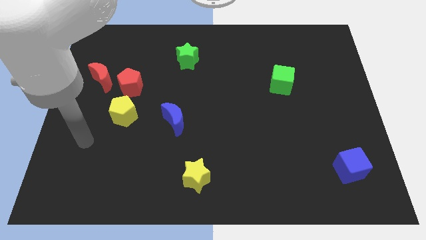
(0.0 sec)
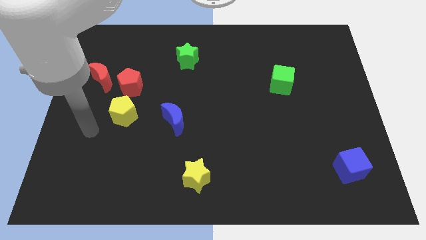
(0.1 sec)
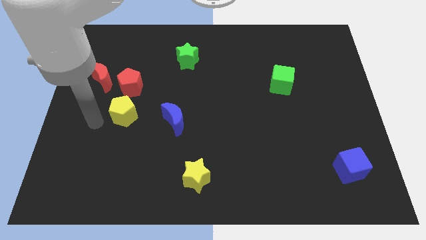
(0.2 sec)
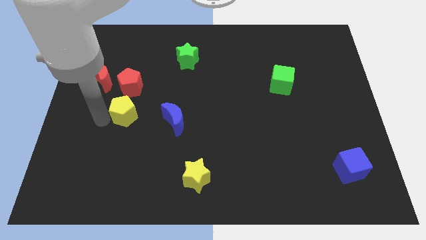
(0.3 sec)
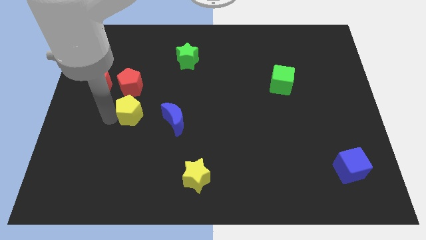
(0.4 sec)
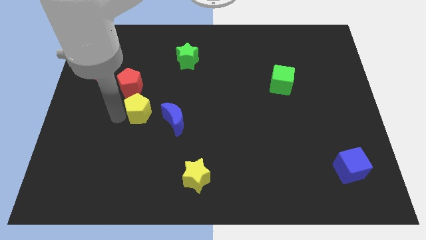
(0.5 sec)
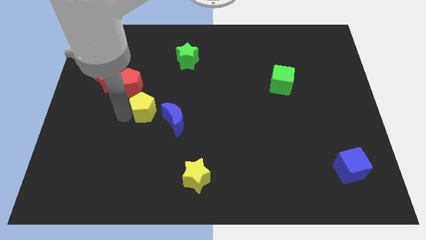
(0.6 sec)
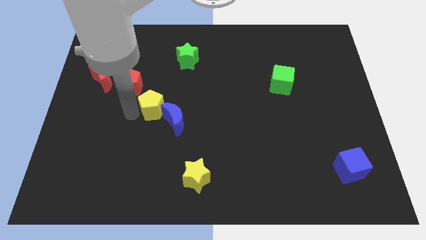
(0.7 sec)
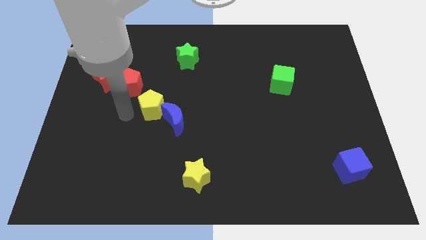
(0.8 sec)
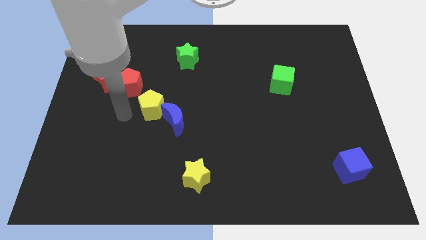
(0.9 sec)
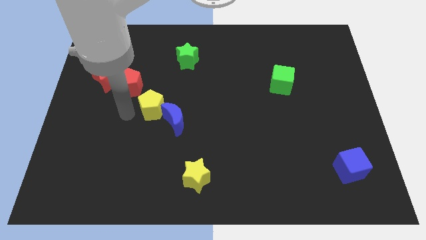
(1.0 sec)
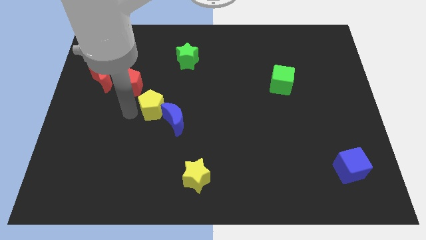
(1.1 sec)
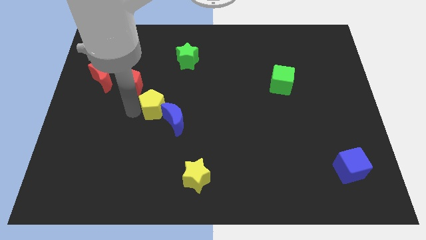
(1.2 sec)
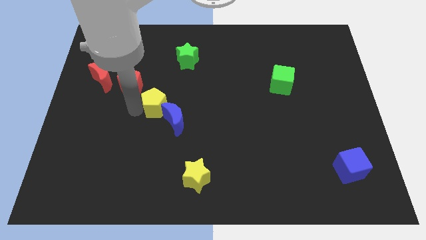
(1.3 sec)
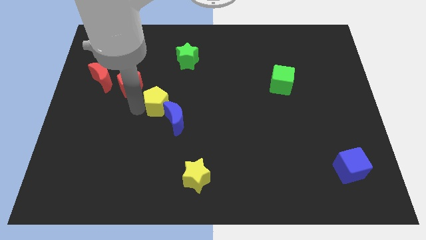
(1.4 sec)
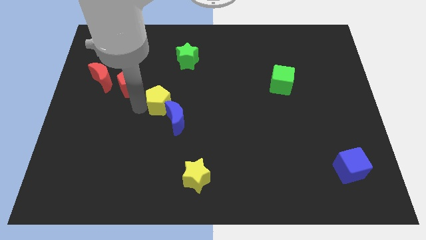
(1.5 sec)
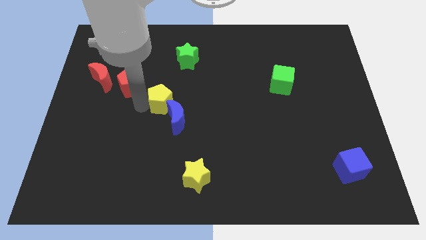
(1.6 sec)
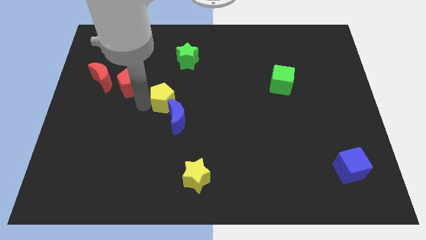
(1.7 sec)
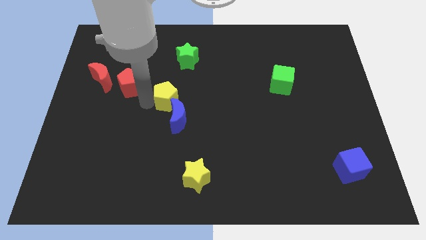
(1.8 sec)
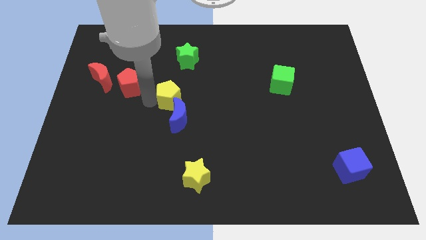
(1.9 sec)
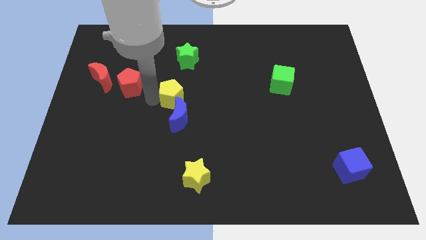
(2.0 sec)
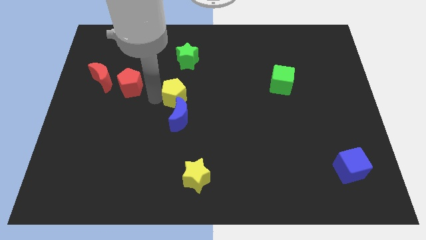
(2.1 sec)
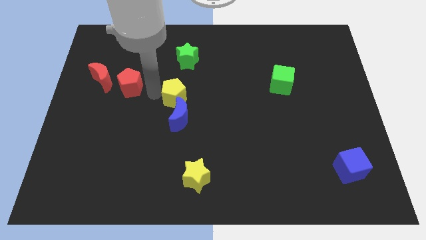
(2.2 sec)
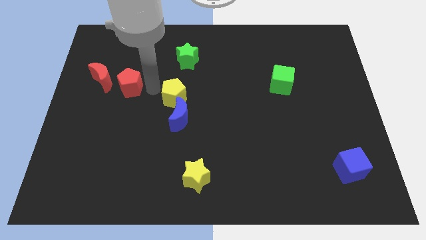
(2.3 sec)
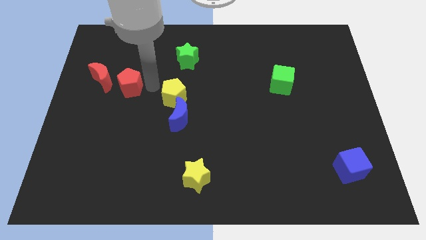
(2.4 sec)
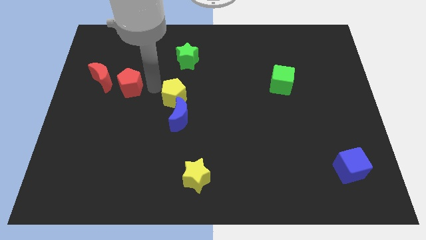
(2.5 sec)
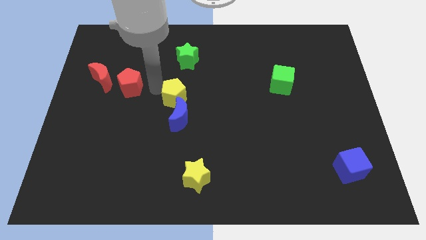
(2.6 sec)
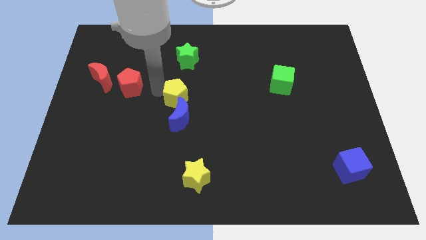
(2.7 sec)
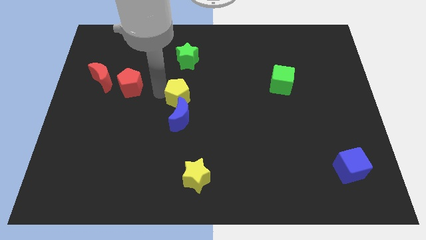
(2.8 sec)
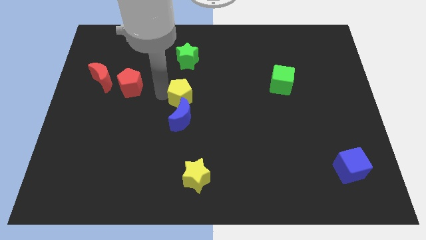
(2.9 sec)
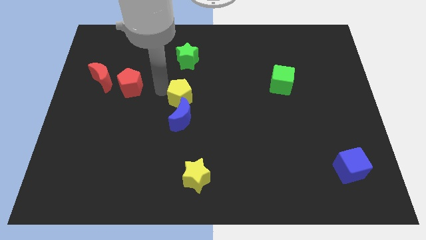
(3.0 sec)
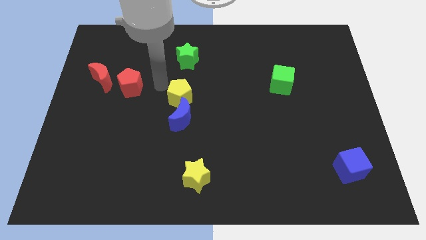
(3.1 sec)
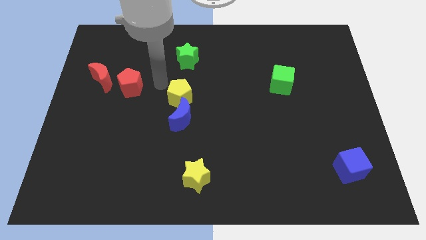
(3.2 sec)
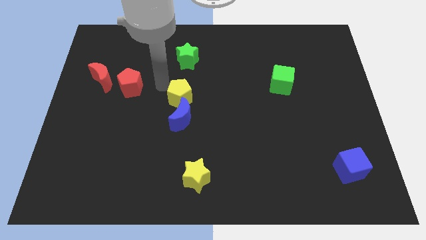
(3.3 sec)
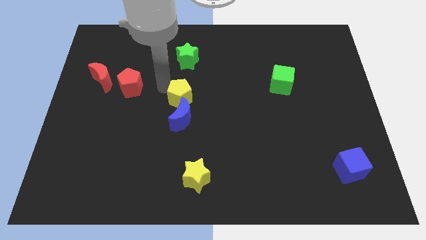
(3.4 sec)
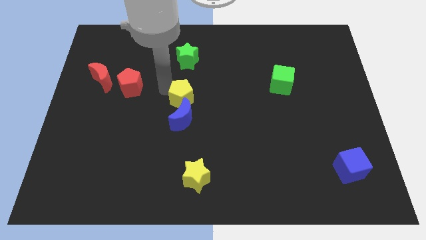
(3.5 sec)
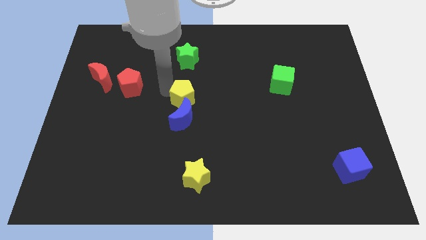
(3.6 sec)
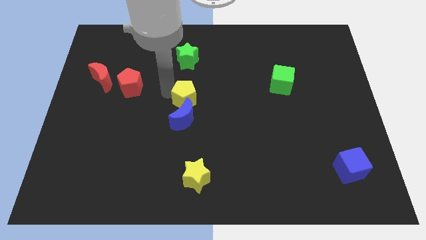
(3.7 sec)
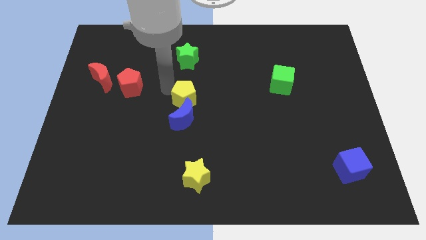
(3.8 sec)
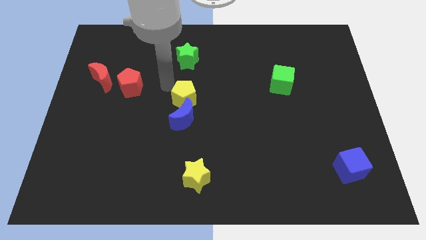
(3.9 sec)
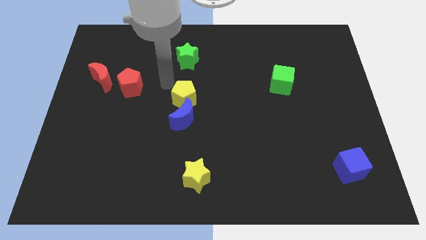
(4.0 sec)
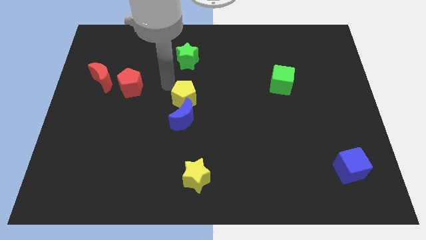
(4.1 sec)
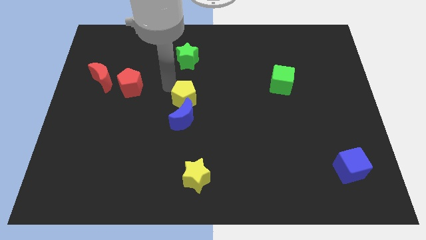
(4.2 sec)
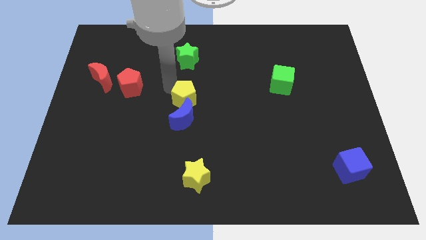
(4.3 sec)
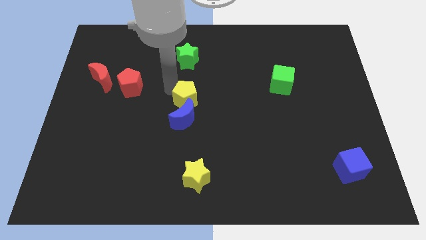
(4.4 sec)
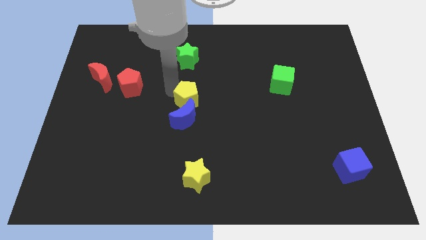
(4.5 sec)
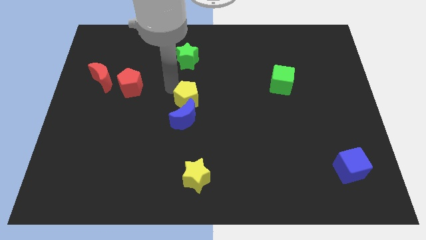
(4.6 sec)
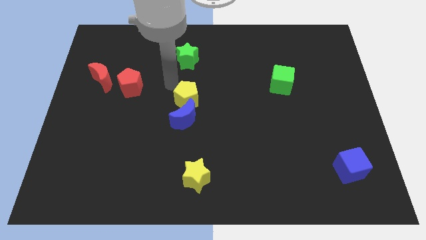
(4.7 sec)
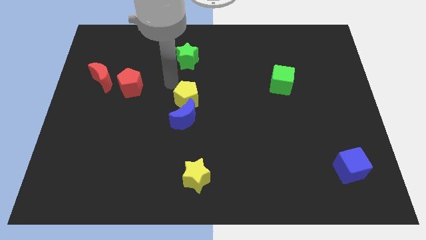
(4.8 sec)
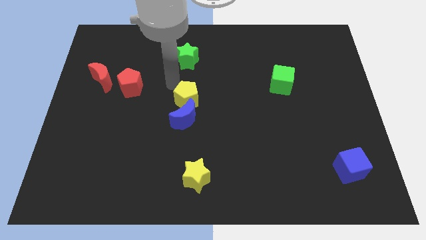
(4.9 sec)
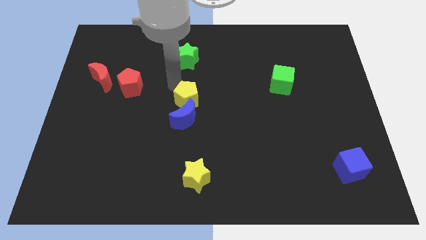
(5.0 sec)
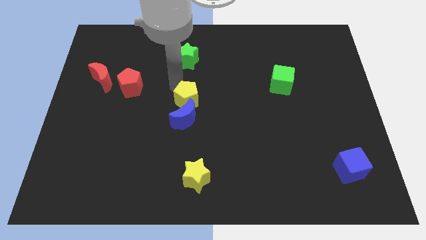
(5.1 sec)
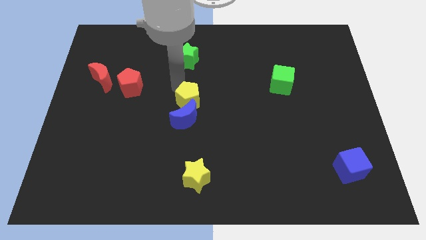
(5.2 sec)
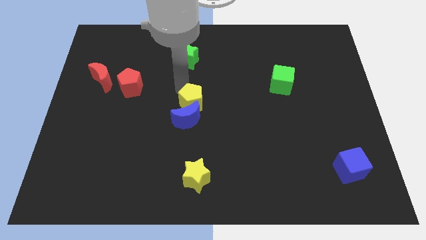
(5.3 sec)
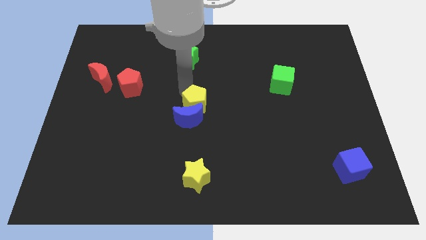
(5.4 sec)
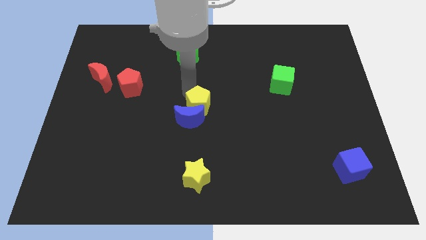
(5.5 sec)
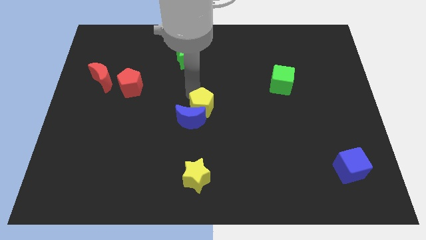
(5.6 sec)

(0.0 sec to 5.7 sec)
put the yellow pentagon to the right of the blue moon
